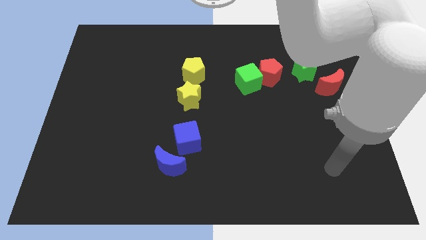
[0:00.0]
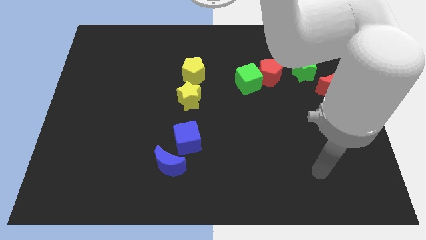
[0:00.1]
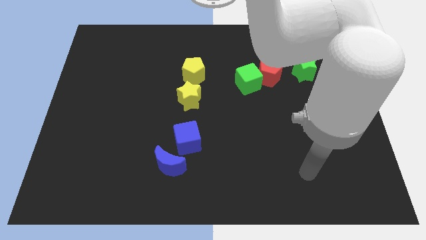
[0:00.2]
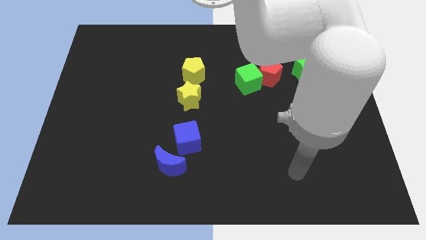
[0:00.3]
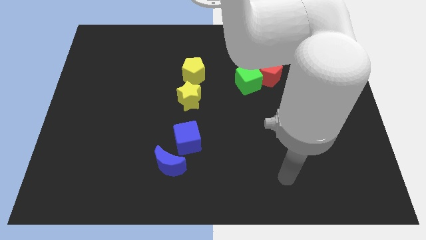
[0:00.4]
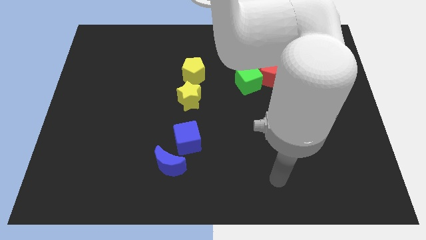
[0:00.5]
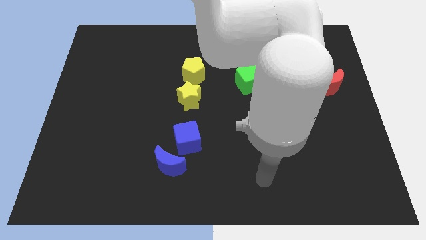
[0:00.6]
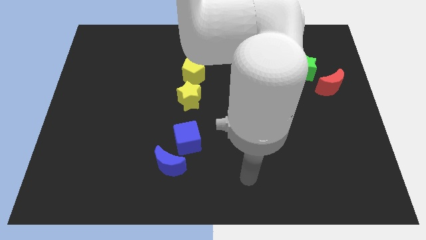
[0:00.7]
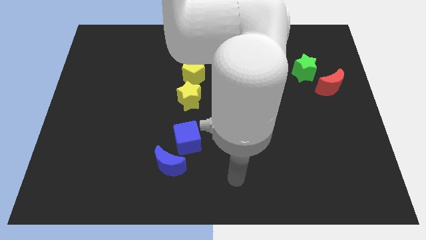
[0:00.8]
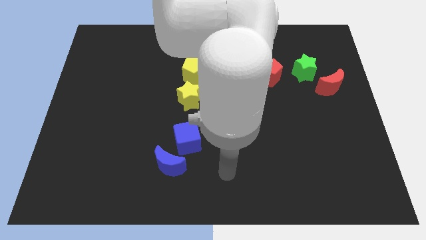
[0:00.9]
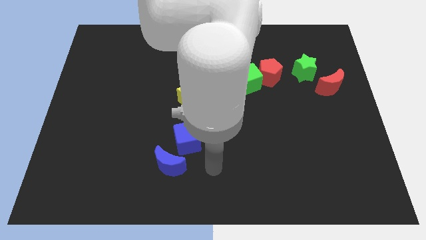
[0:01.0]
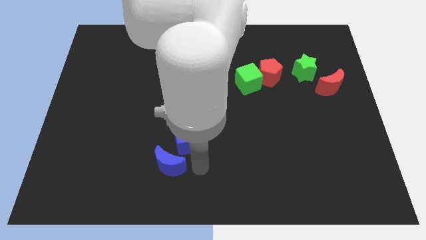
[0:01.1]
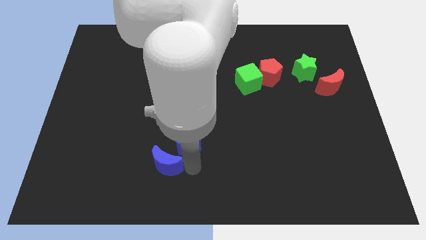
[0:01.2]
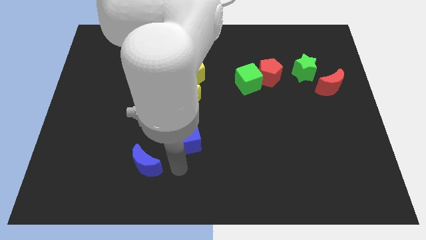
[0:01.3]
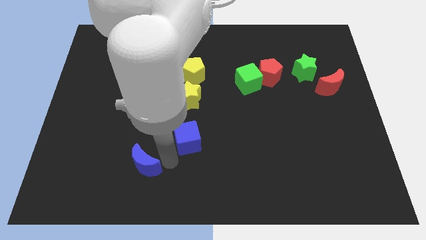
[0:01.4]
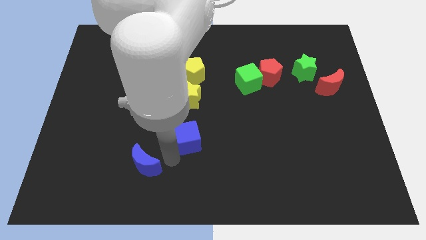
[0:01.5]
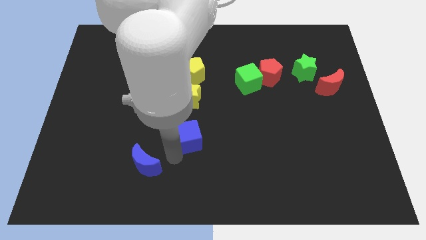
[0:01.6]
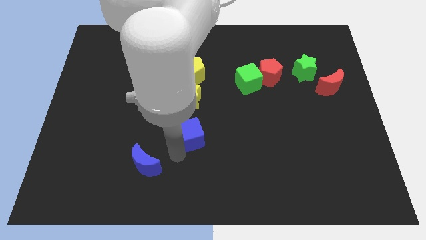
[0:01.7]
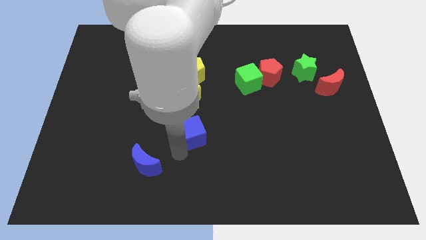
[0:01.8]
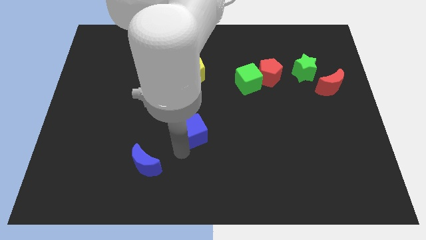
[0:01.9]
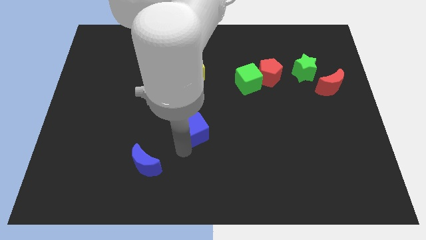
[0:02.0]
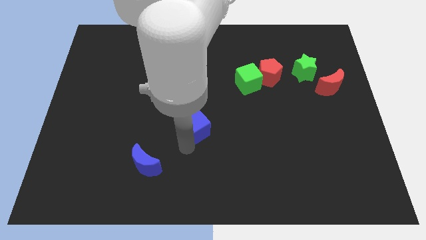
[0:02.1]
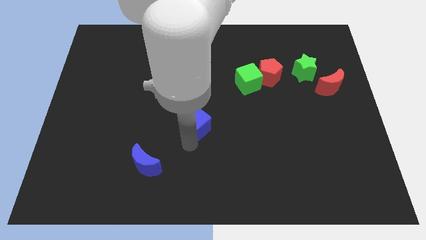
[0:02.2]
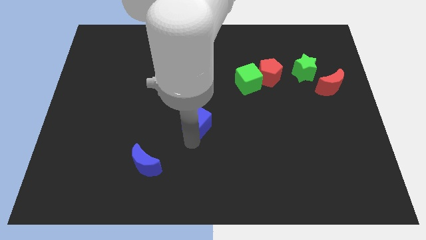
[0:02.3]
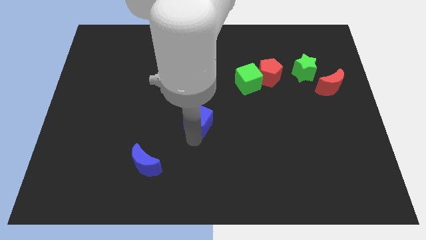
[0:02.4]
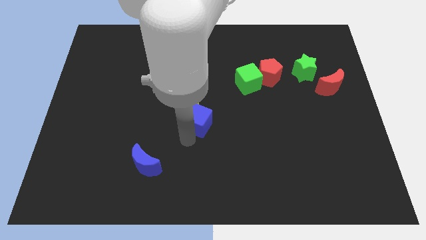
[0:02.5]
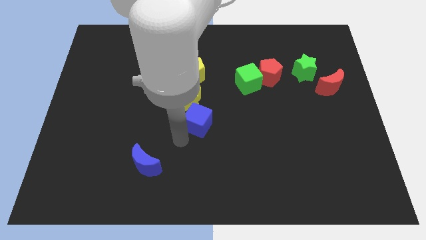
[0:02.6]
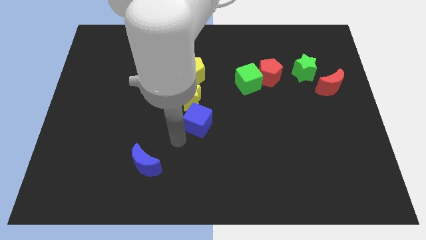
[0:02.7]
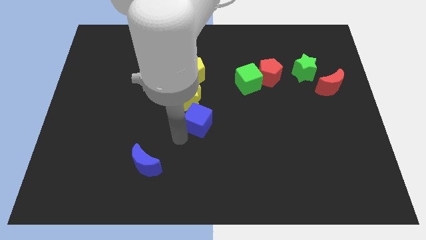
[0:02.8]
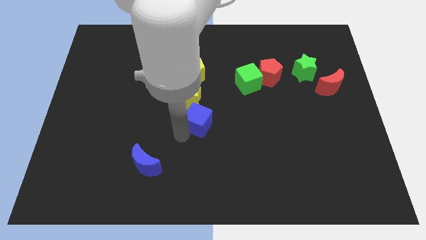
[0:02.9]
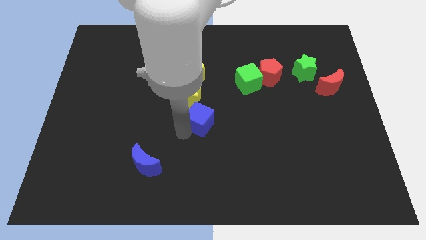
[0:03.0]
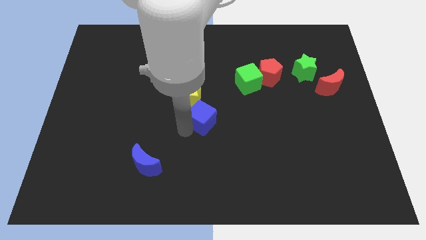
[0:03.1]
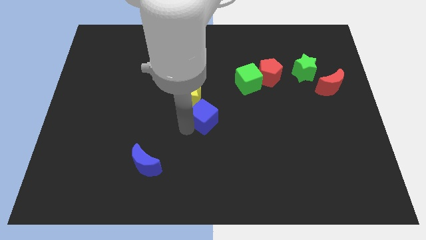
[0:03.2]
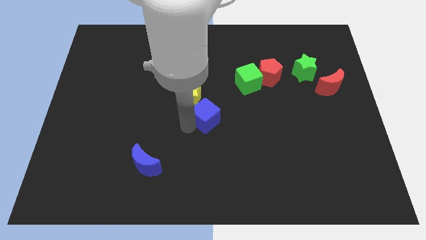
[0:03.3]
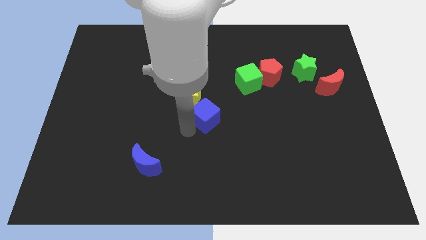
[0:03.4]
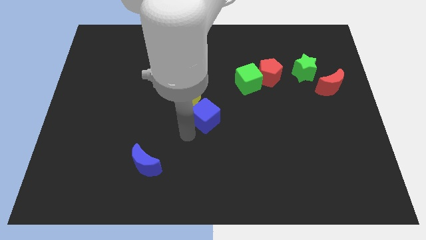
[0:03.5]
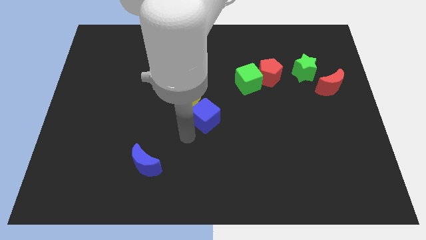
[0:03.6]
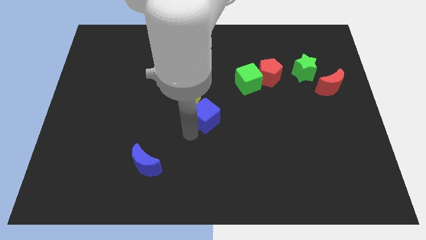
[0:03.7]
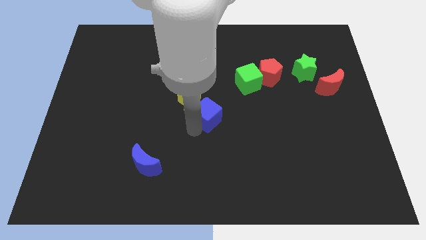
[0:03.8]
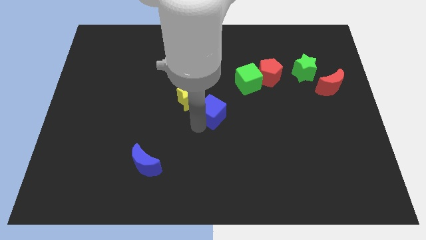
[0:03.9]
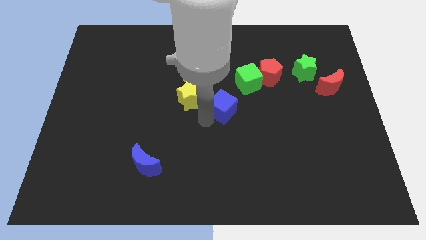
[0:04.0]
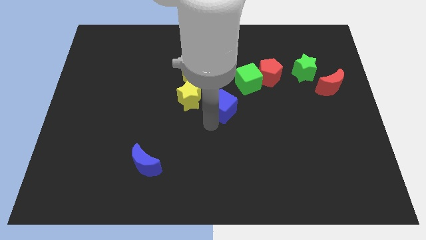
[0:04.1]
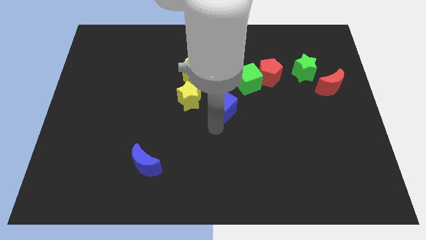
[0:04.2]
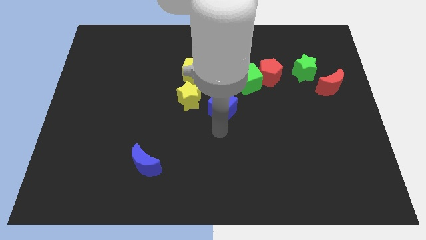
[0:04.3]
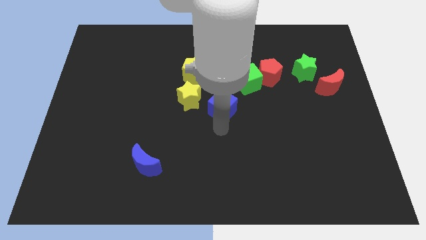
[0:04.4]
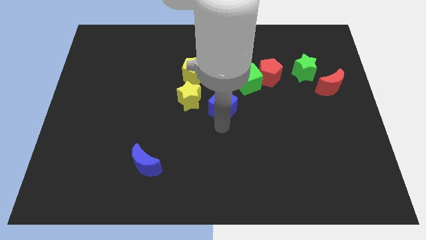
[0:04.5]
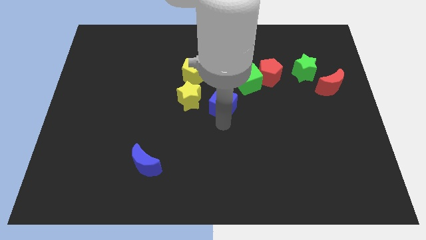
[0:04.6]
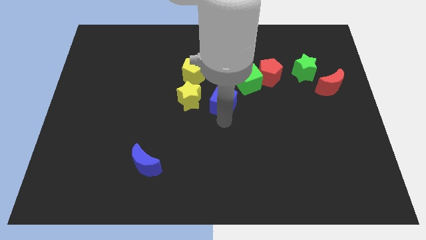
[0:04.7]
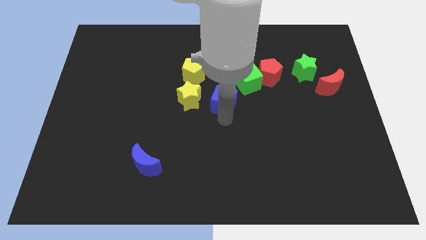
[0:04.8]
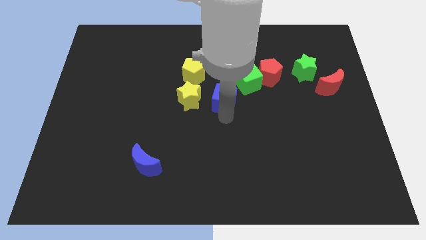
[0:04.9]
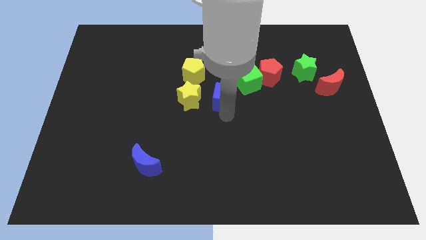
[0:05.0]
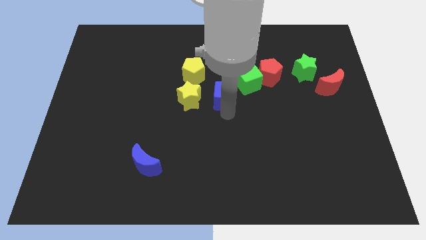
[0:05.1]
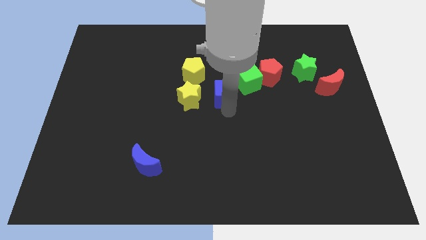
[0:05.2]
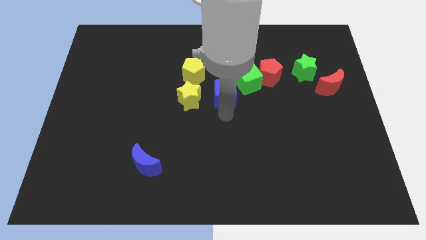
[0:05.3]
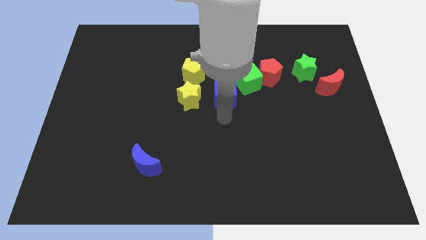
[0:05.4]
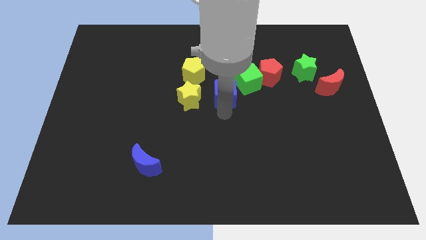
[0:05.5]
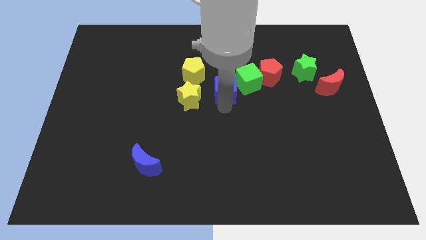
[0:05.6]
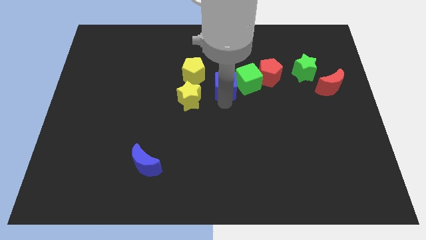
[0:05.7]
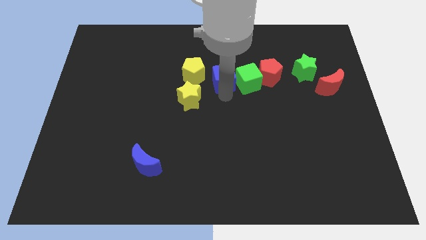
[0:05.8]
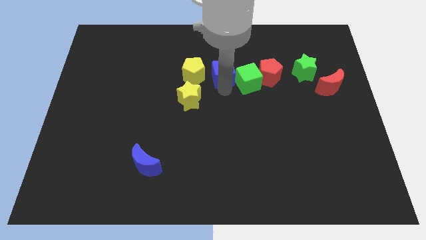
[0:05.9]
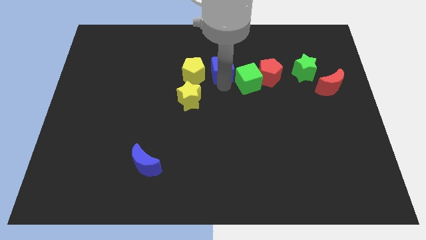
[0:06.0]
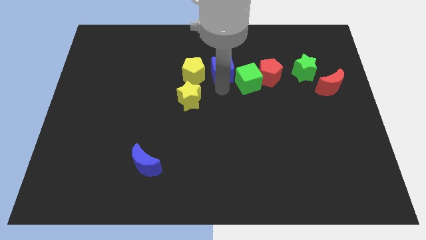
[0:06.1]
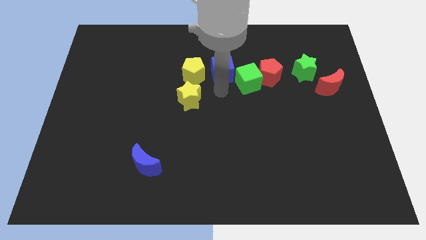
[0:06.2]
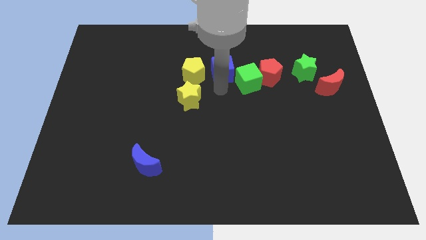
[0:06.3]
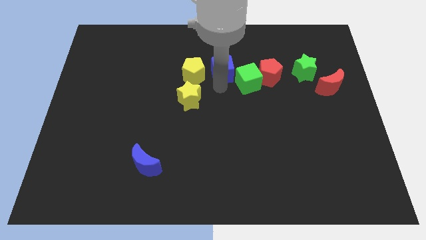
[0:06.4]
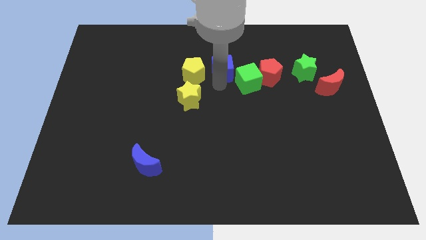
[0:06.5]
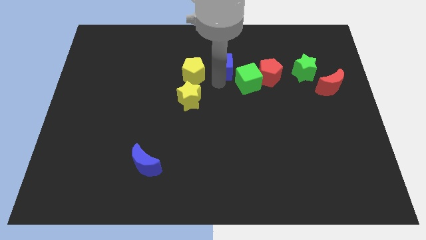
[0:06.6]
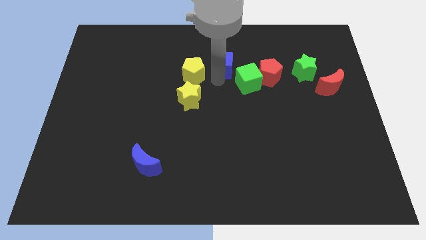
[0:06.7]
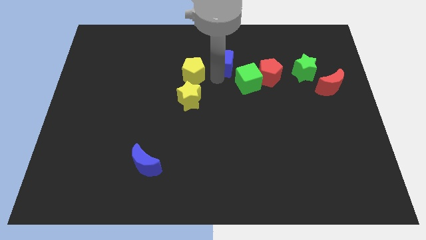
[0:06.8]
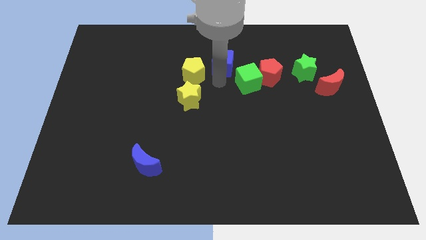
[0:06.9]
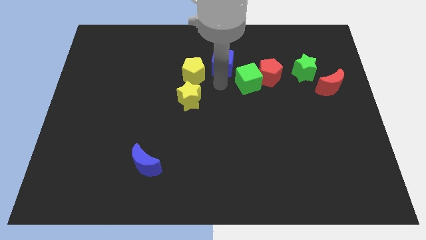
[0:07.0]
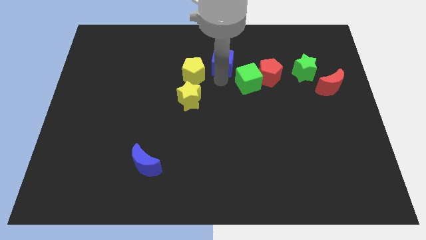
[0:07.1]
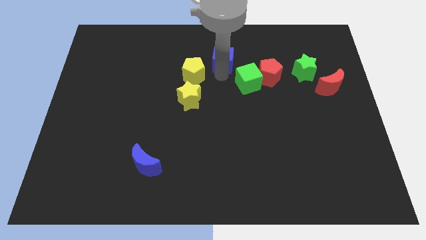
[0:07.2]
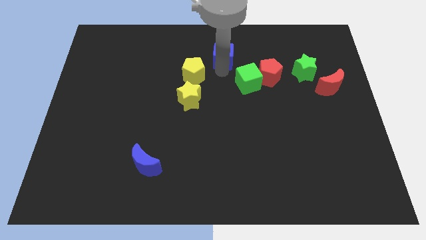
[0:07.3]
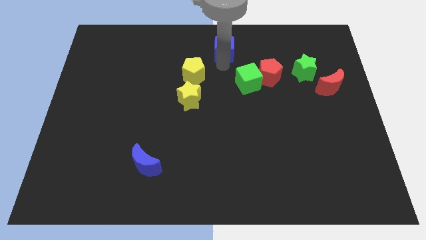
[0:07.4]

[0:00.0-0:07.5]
slide the blue cube to the towards your base
